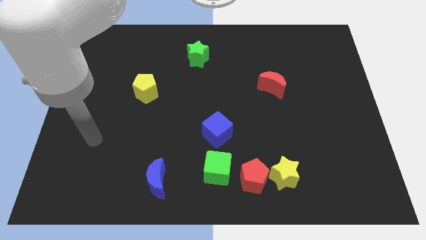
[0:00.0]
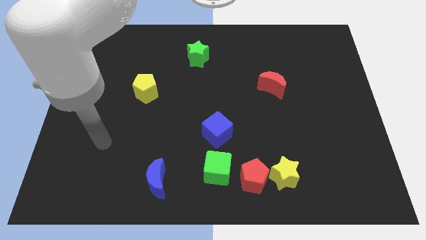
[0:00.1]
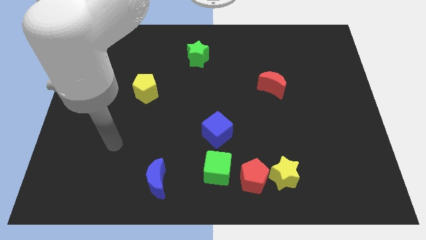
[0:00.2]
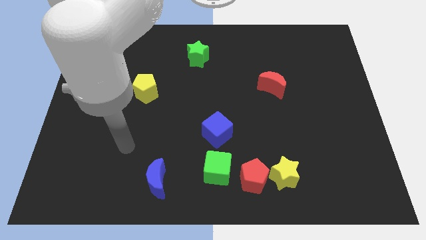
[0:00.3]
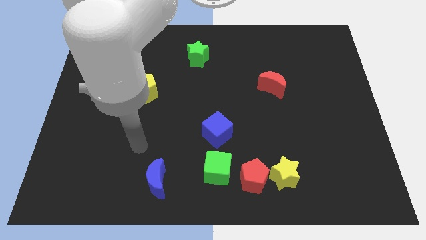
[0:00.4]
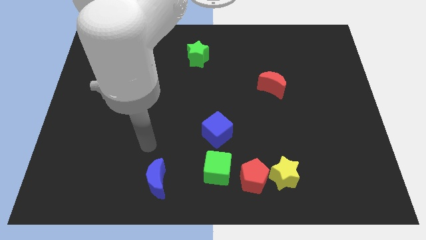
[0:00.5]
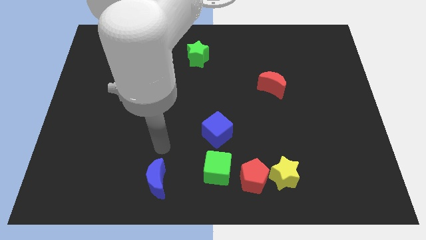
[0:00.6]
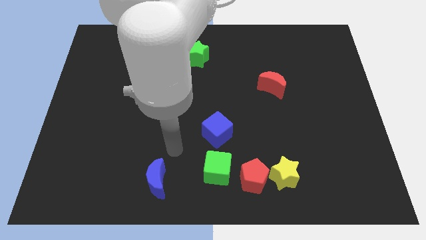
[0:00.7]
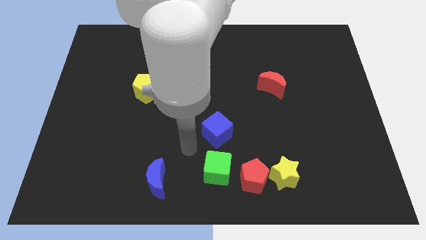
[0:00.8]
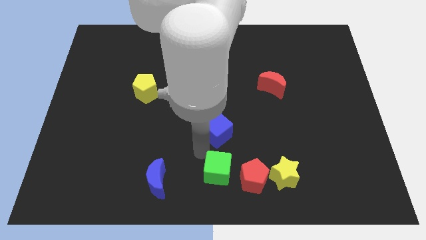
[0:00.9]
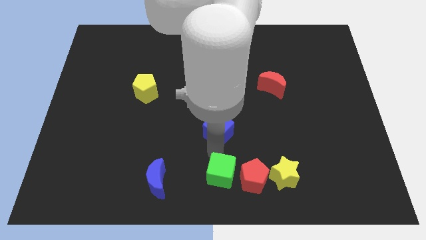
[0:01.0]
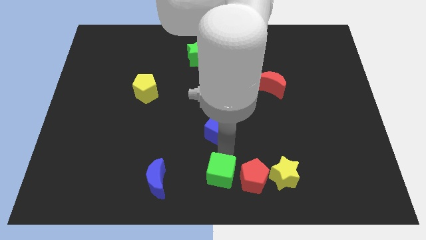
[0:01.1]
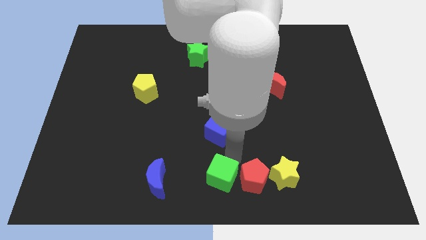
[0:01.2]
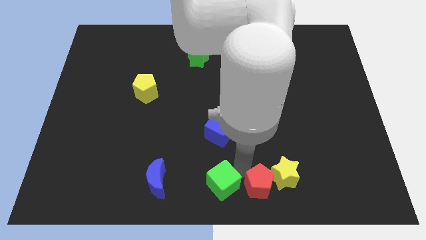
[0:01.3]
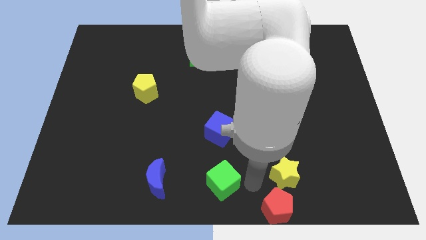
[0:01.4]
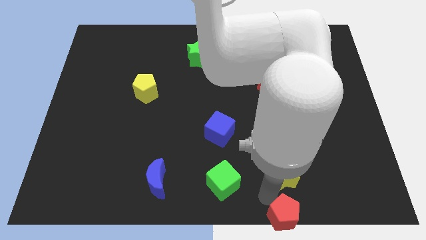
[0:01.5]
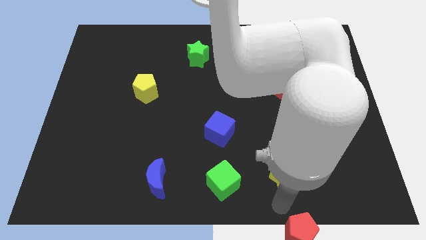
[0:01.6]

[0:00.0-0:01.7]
move the yellow star away from the red pentagon

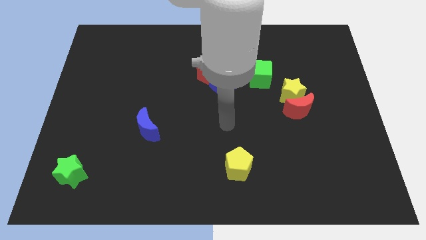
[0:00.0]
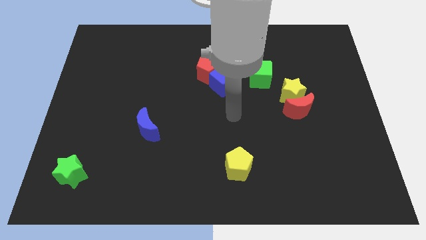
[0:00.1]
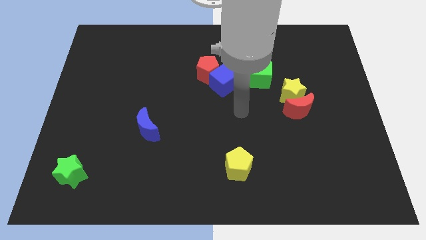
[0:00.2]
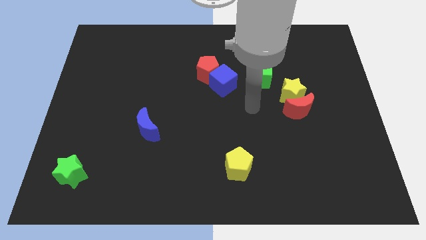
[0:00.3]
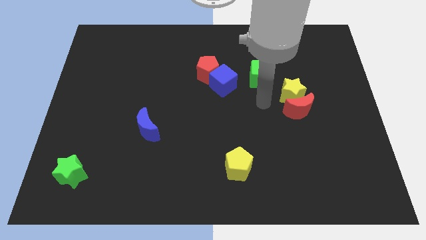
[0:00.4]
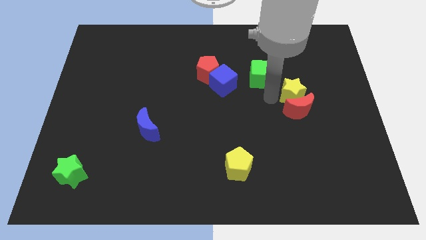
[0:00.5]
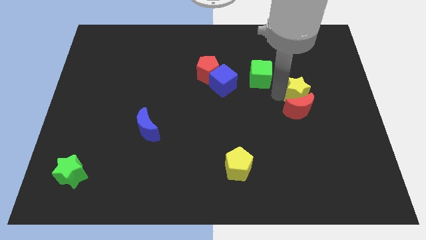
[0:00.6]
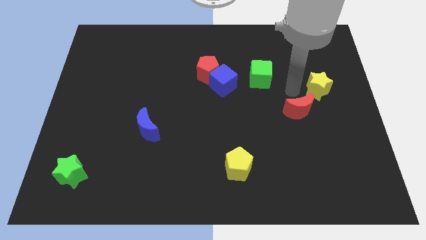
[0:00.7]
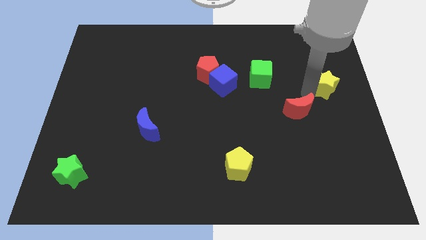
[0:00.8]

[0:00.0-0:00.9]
move the red moon away from the yellow star

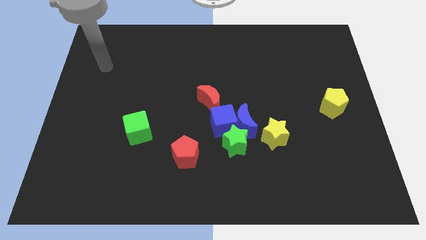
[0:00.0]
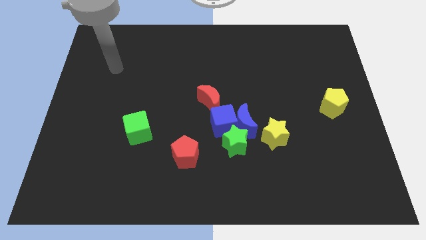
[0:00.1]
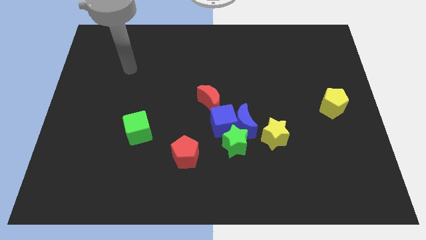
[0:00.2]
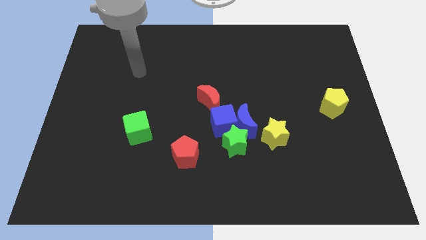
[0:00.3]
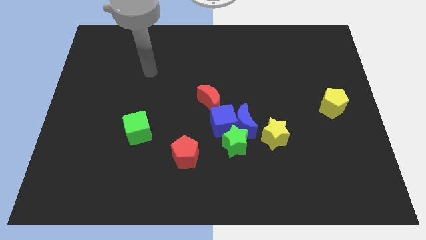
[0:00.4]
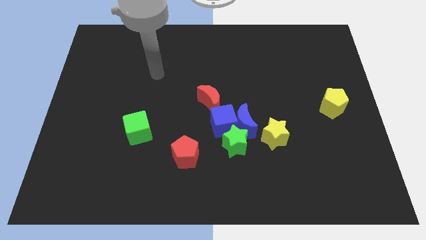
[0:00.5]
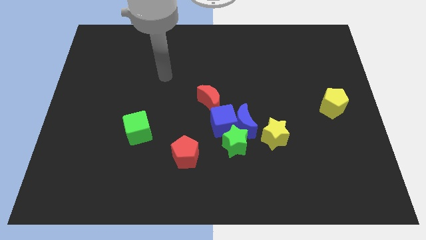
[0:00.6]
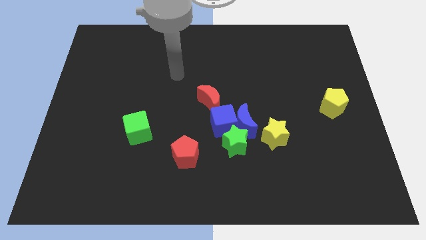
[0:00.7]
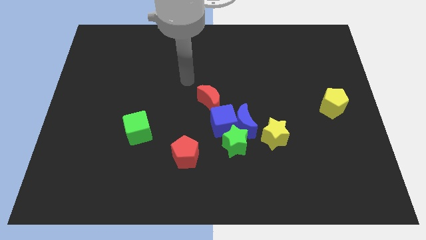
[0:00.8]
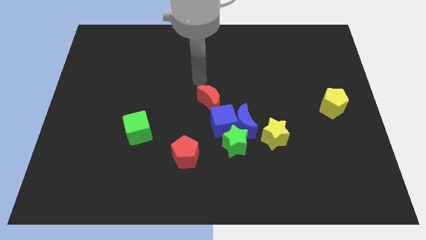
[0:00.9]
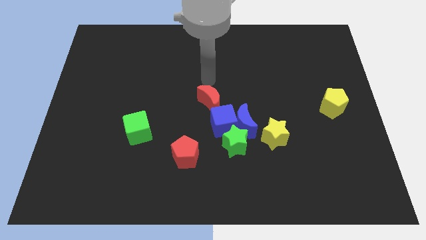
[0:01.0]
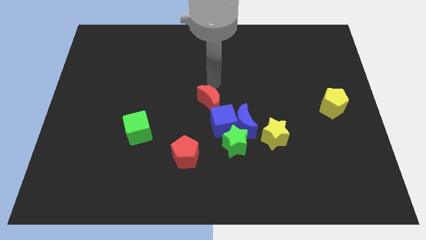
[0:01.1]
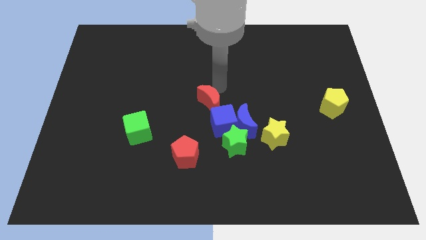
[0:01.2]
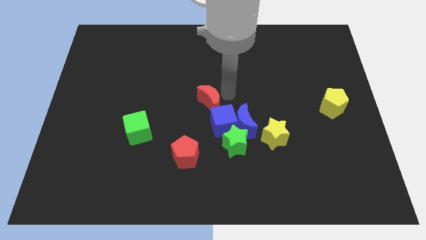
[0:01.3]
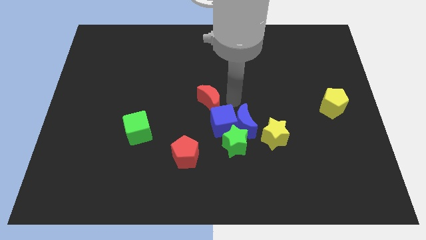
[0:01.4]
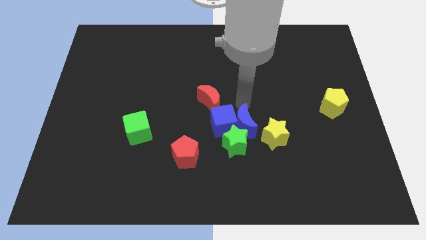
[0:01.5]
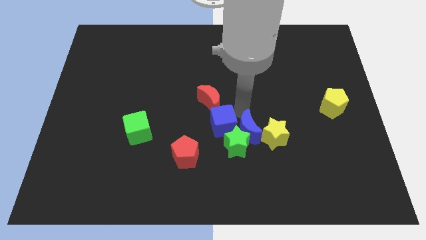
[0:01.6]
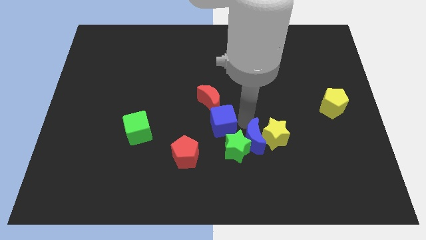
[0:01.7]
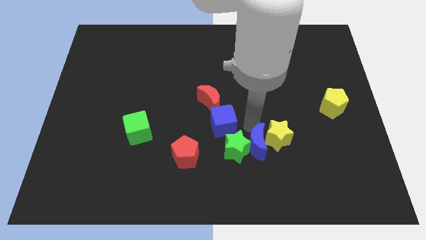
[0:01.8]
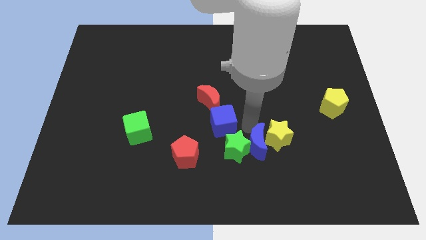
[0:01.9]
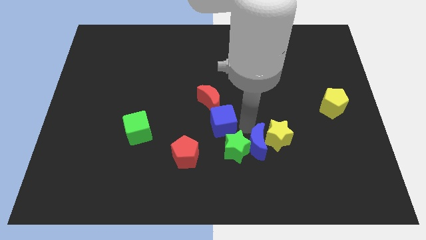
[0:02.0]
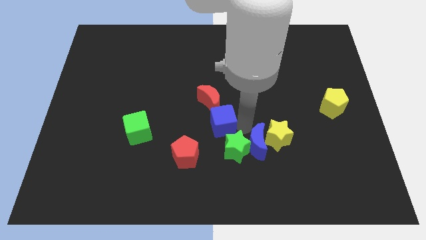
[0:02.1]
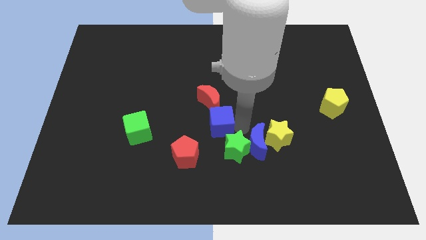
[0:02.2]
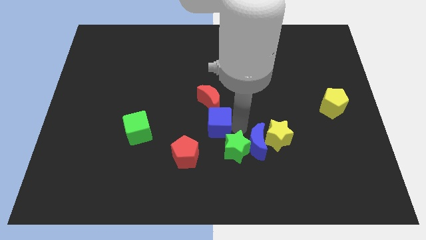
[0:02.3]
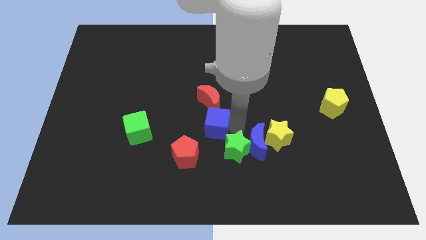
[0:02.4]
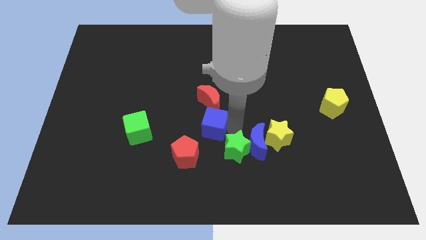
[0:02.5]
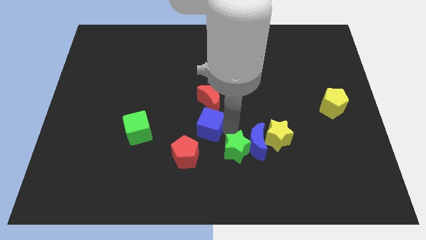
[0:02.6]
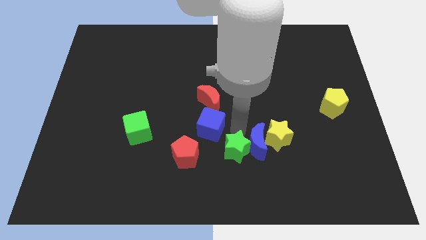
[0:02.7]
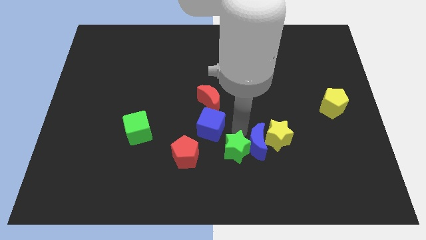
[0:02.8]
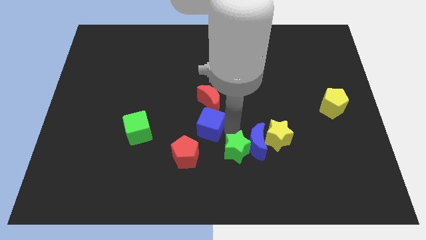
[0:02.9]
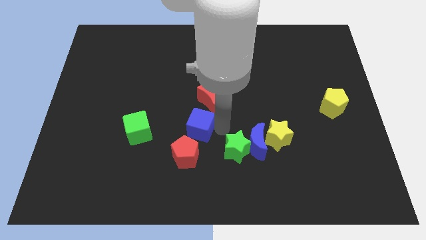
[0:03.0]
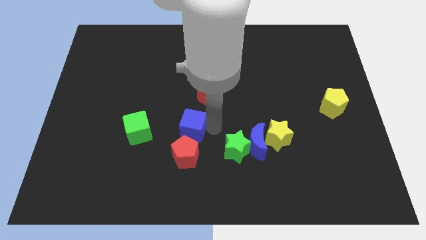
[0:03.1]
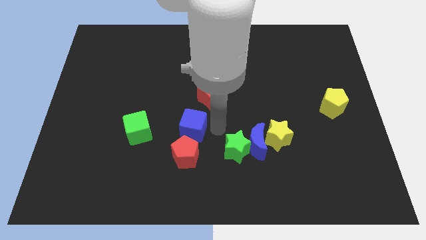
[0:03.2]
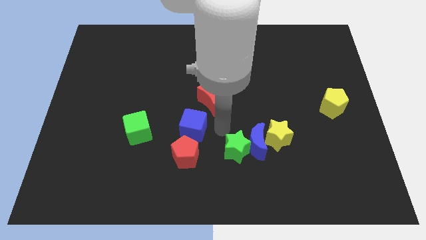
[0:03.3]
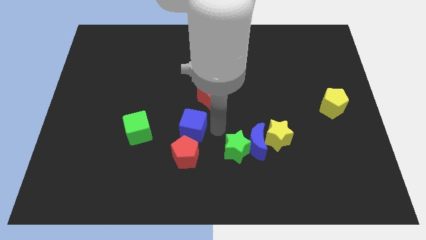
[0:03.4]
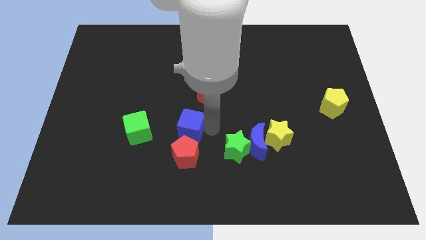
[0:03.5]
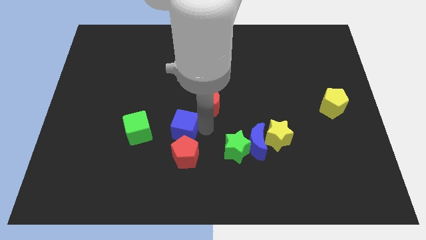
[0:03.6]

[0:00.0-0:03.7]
separate the blue cube from the group

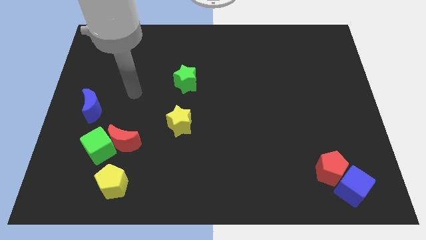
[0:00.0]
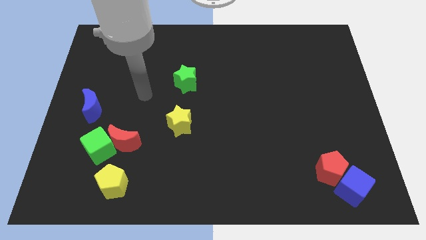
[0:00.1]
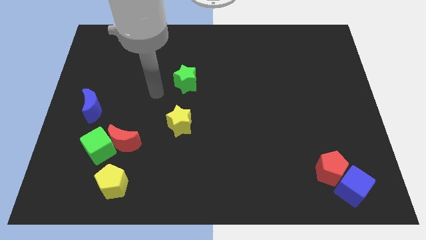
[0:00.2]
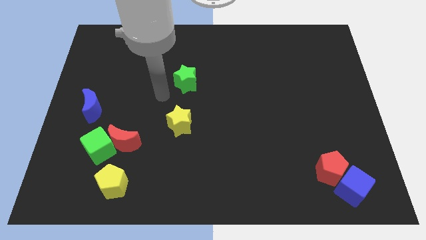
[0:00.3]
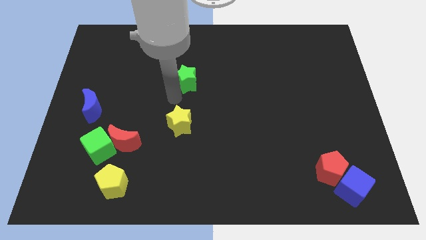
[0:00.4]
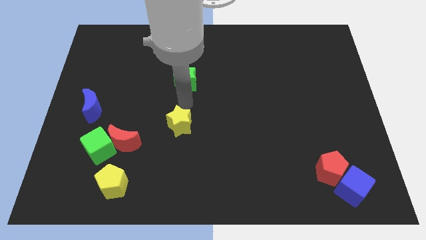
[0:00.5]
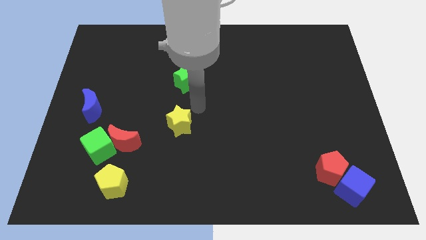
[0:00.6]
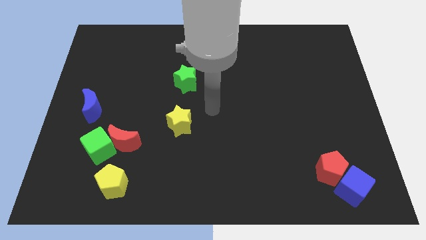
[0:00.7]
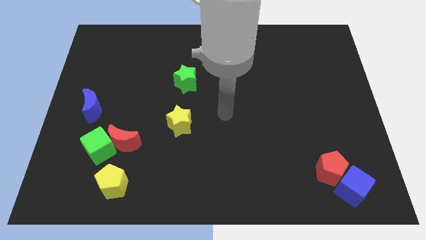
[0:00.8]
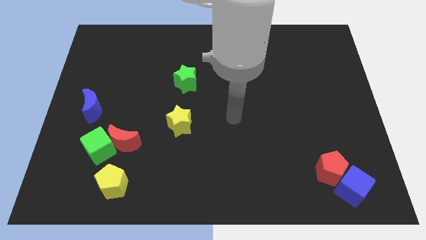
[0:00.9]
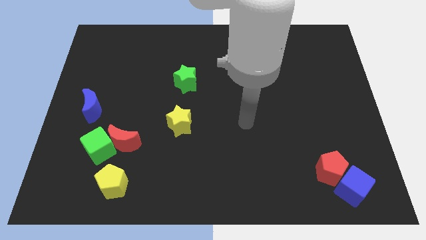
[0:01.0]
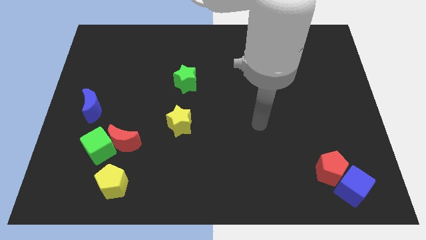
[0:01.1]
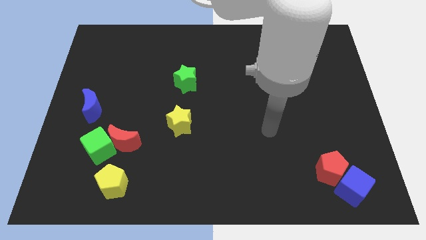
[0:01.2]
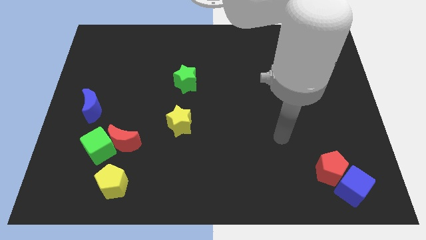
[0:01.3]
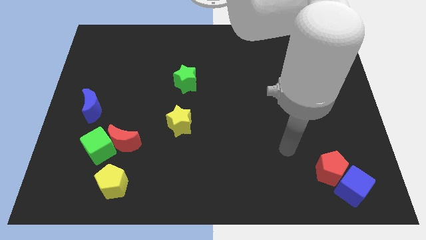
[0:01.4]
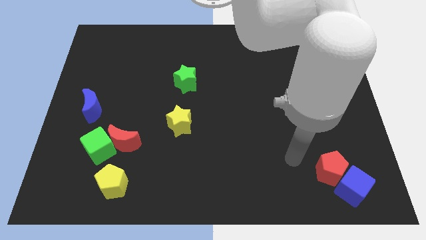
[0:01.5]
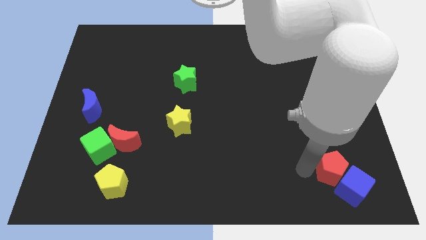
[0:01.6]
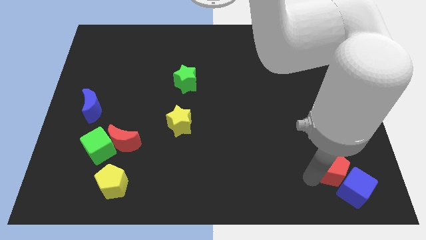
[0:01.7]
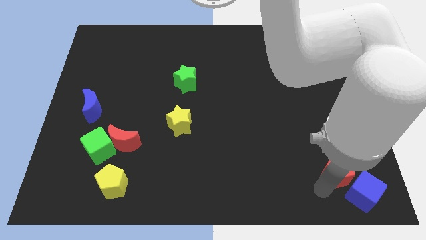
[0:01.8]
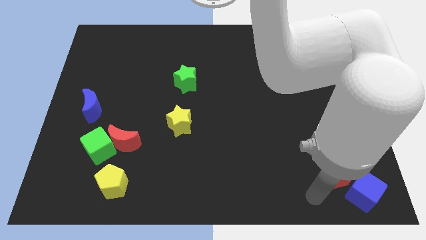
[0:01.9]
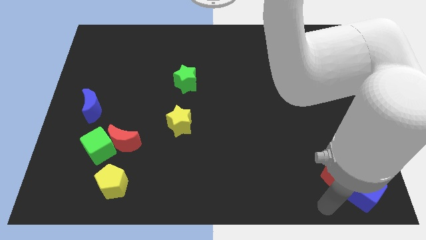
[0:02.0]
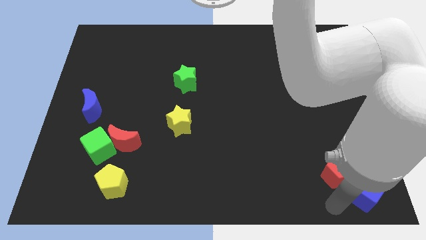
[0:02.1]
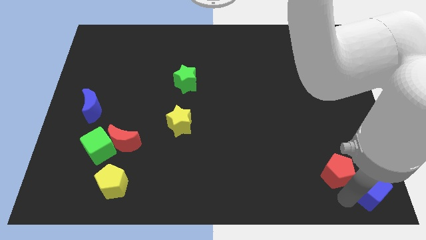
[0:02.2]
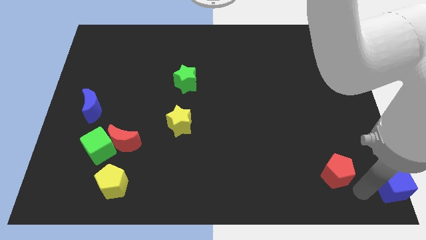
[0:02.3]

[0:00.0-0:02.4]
move the red pentagon away from the blue cube

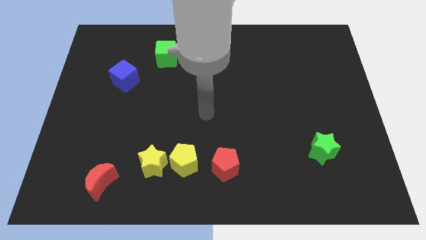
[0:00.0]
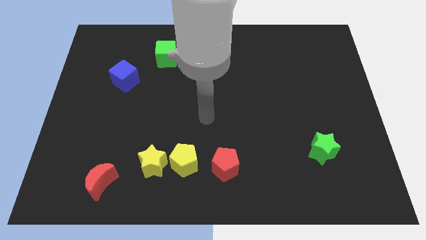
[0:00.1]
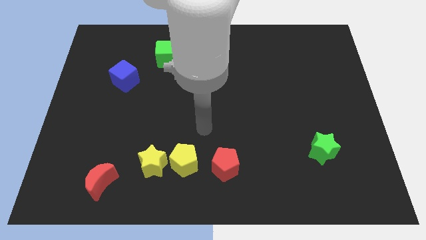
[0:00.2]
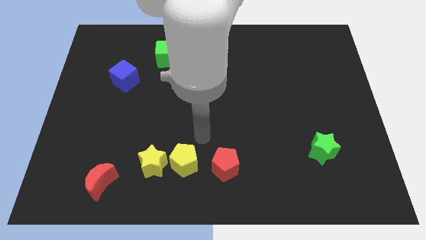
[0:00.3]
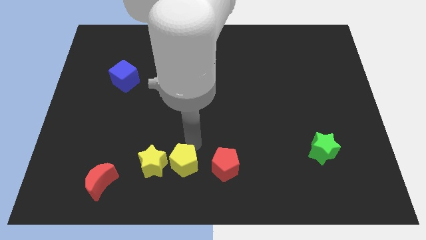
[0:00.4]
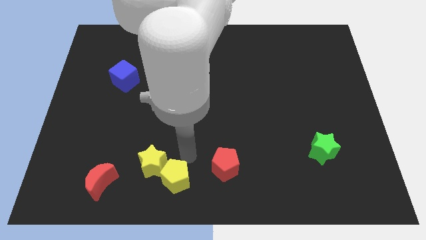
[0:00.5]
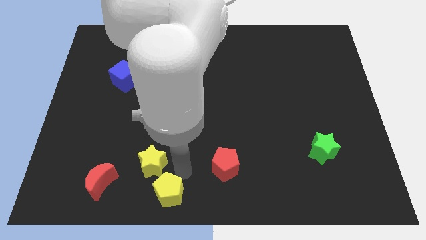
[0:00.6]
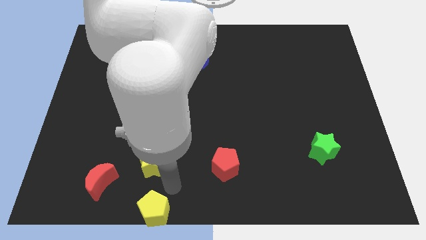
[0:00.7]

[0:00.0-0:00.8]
move the yellow star away from the yellow pentagon
